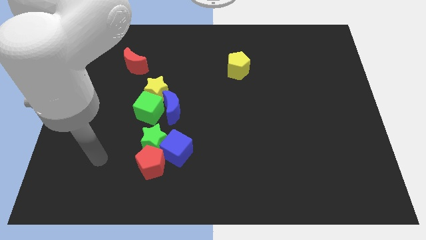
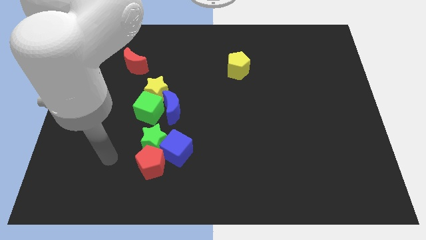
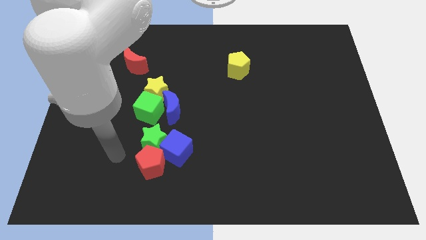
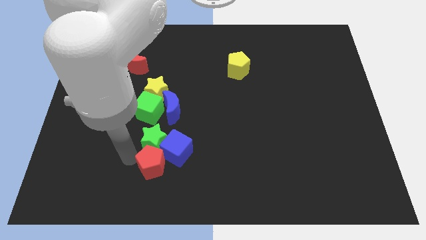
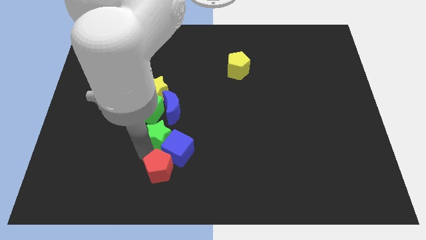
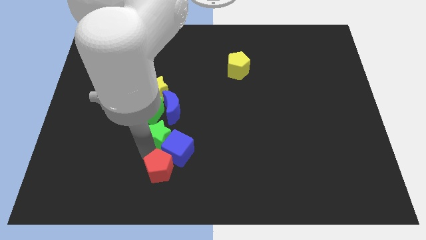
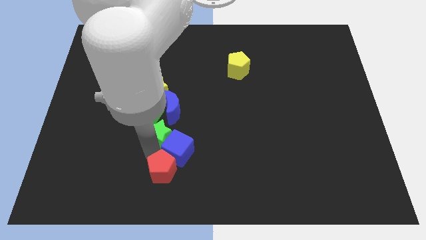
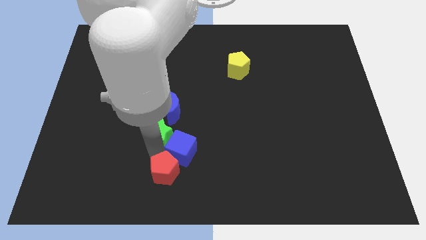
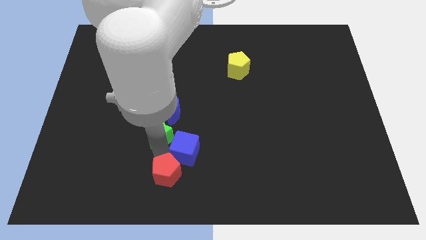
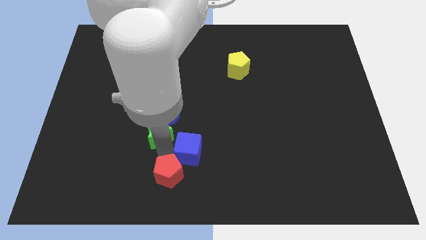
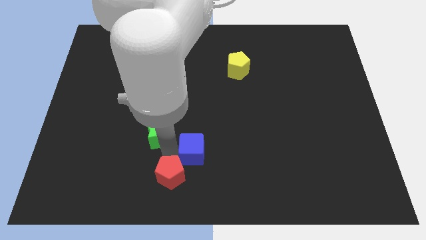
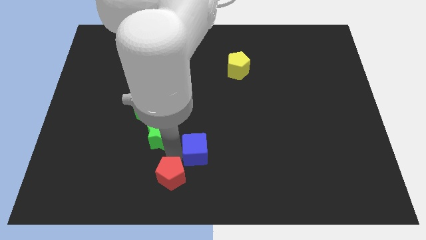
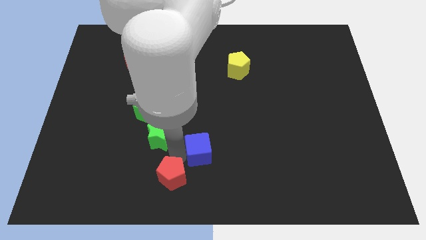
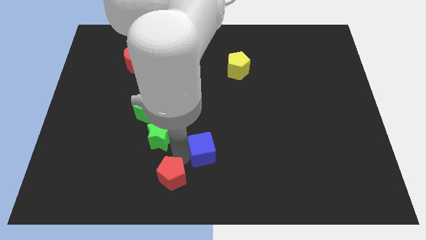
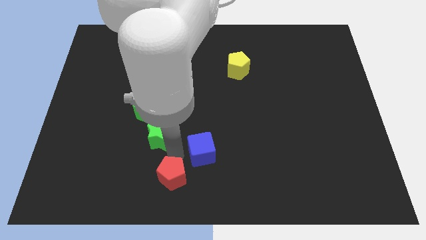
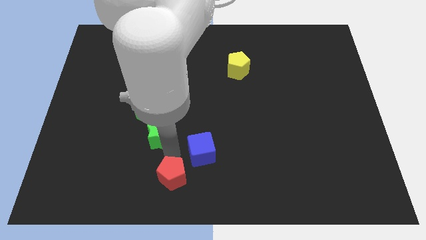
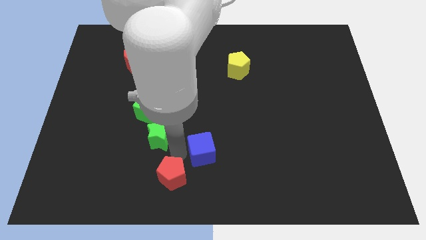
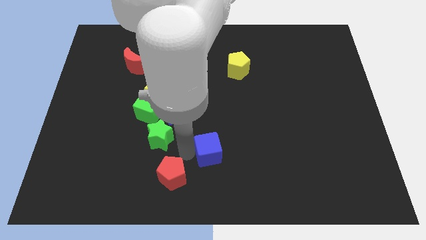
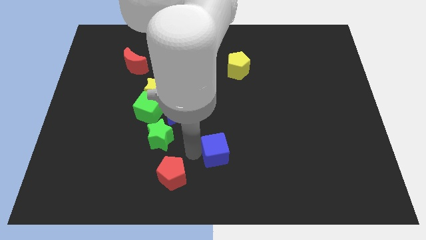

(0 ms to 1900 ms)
pull the blue cube apart from the green star and red pentagon

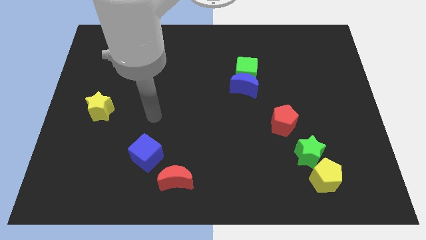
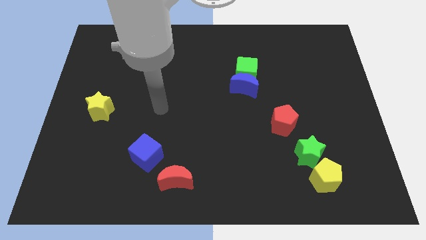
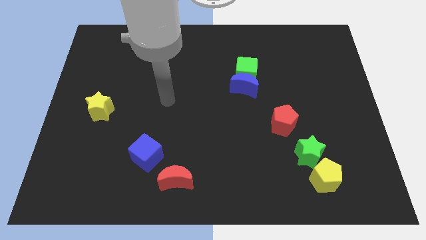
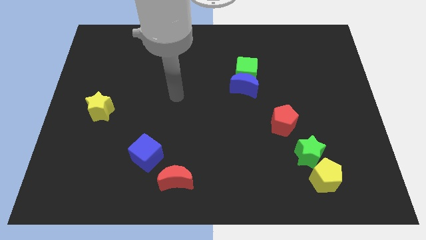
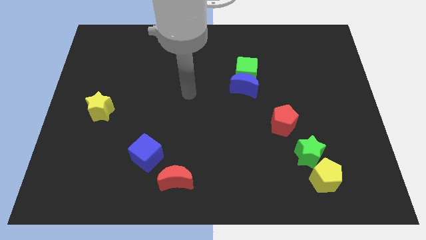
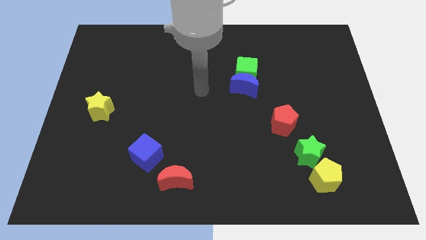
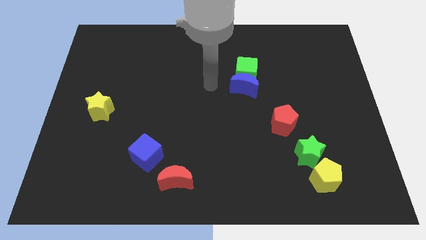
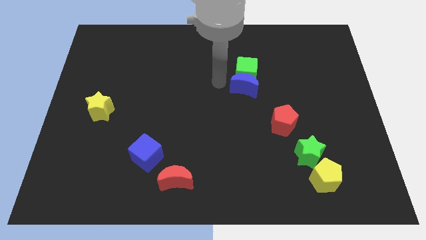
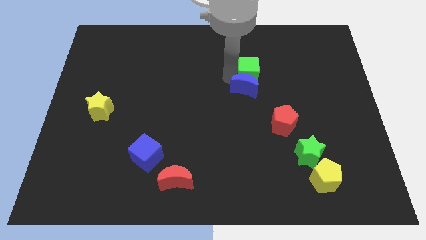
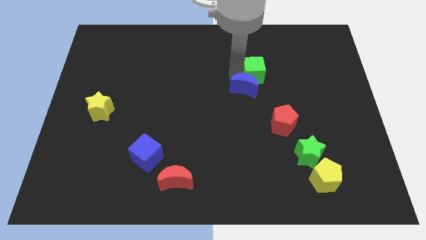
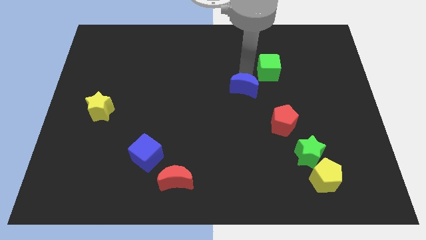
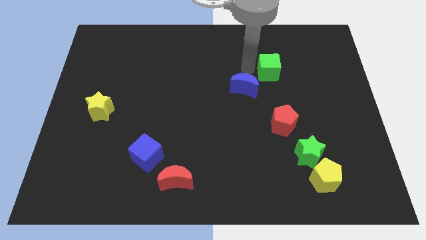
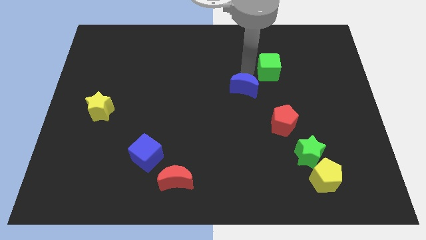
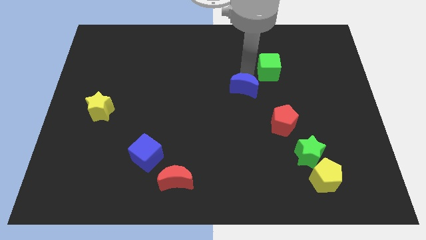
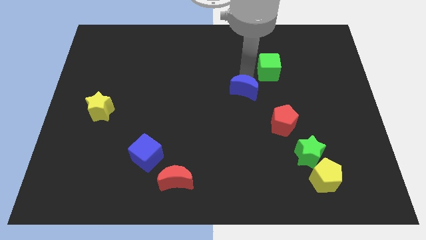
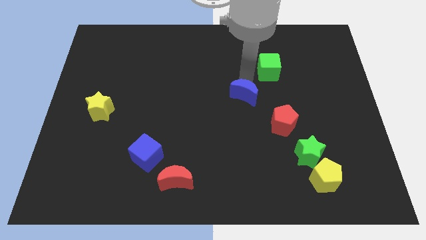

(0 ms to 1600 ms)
pull the blue moon apart from the green cube

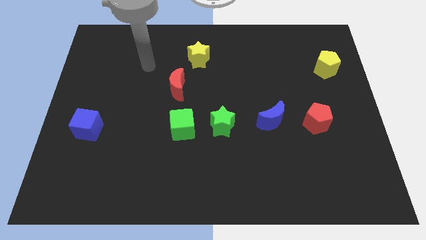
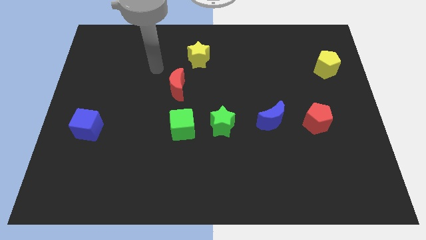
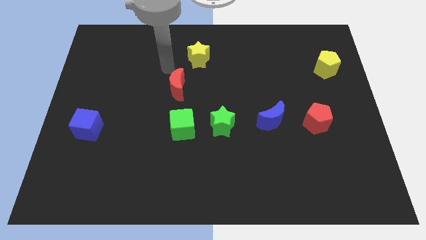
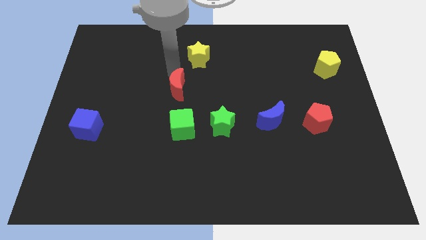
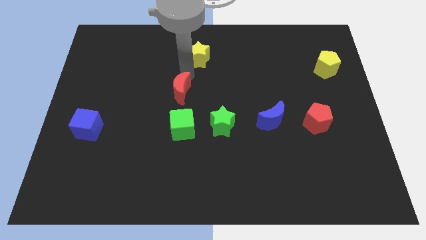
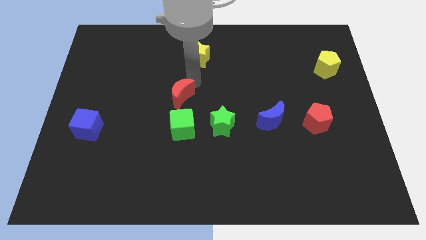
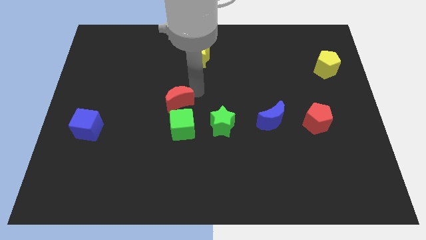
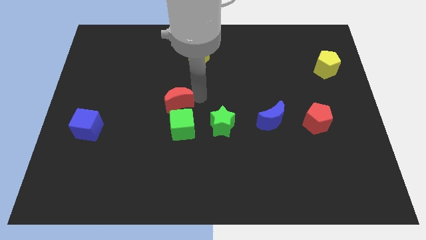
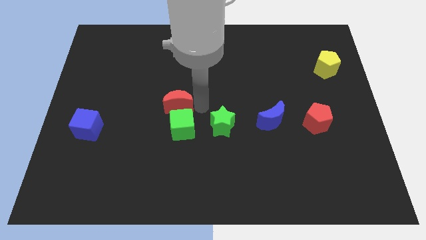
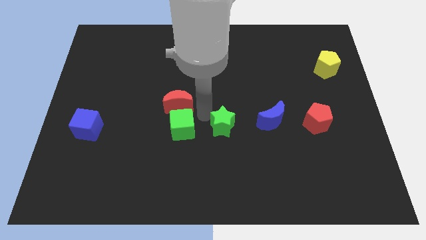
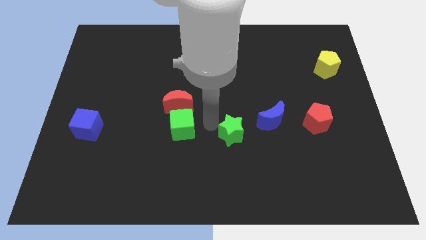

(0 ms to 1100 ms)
separate the green cube from the green star

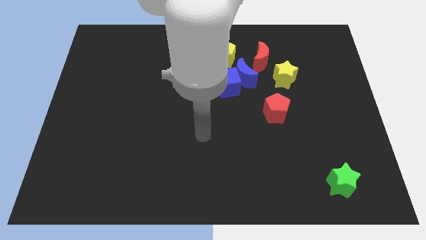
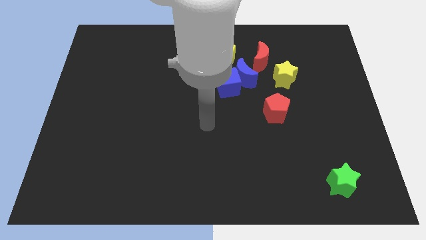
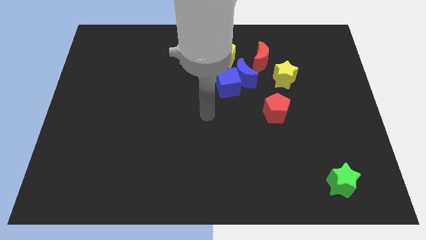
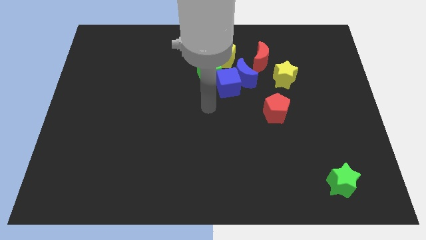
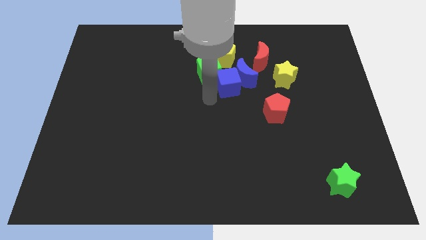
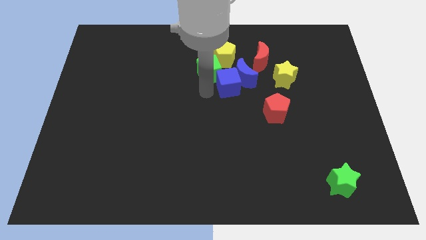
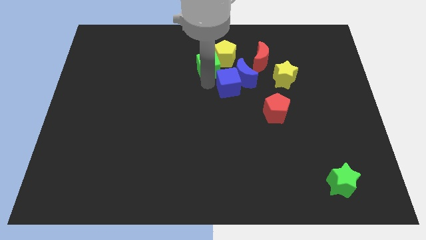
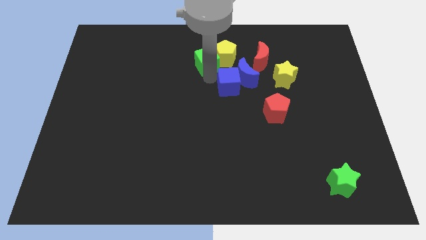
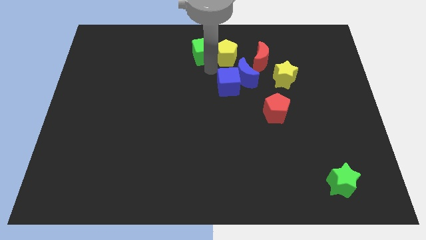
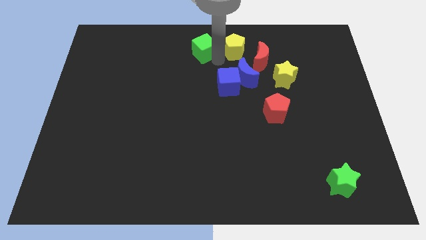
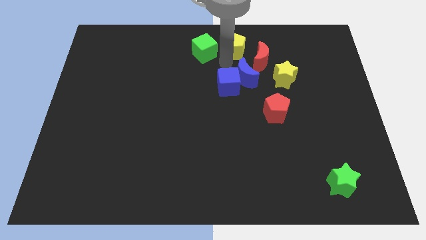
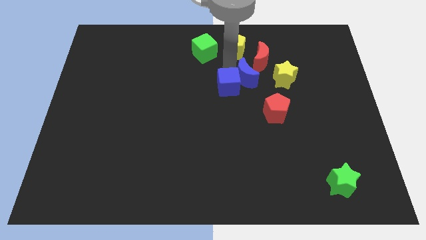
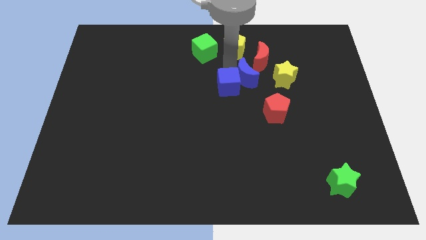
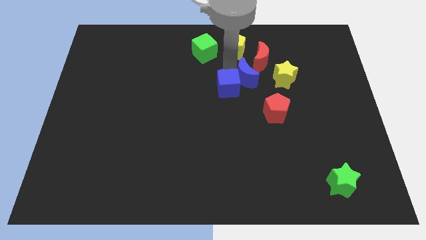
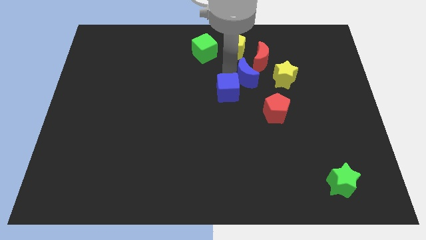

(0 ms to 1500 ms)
pull the blue cube apart from the clump

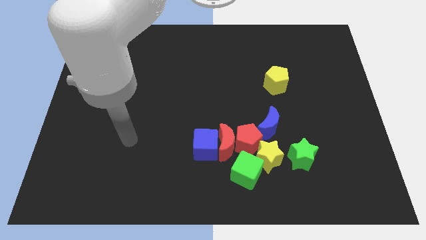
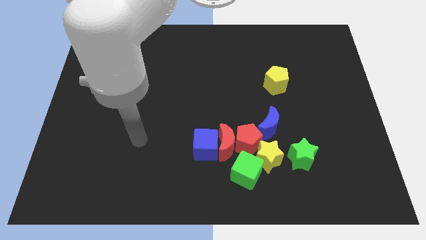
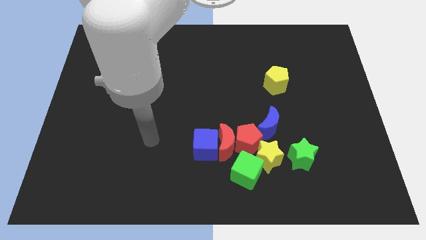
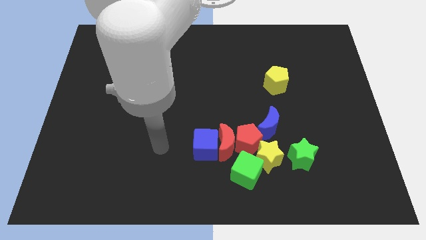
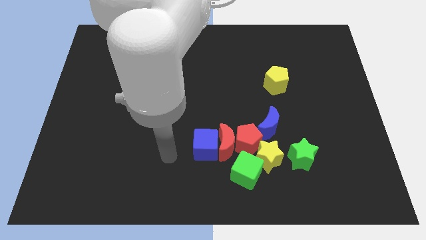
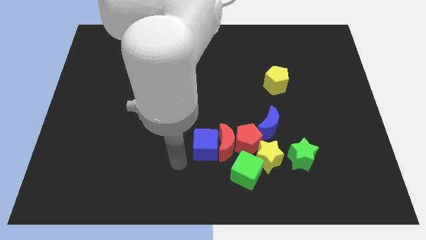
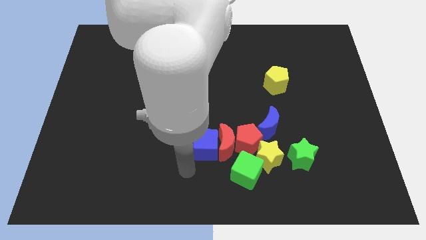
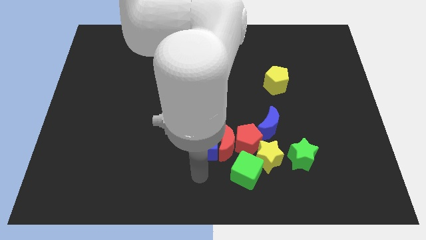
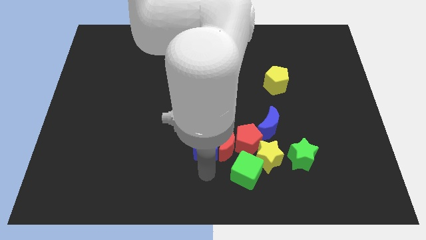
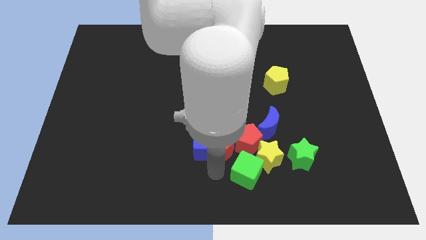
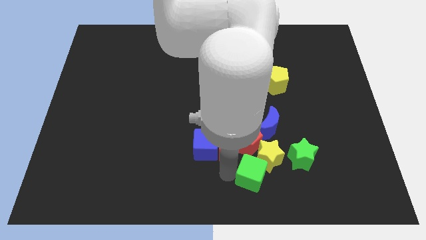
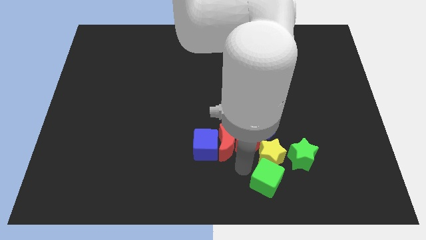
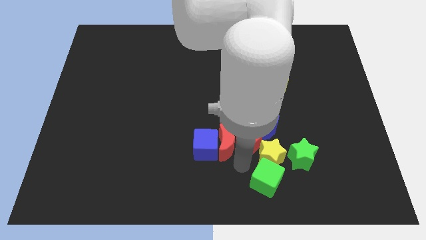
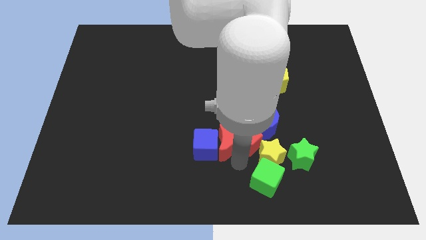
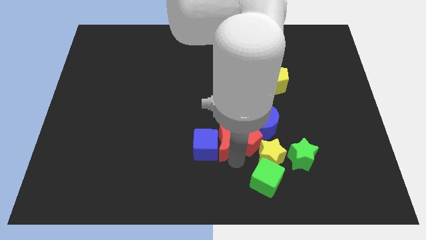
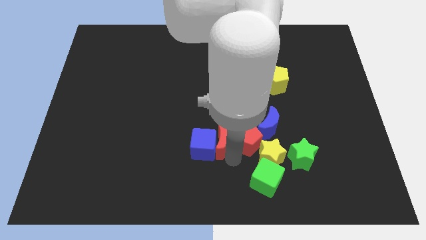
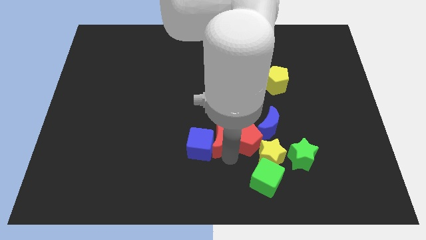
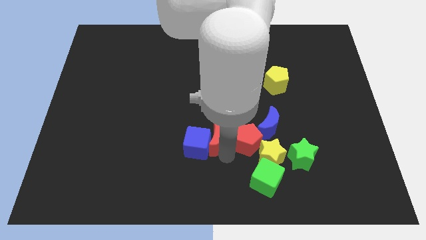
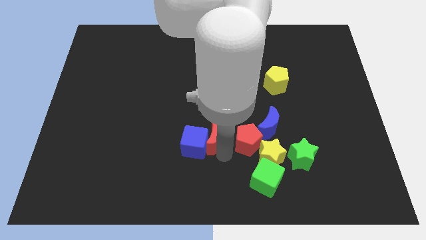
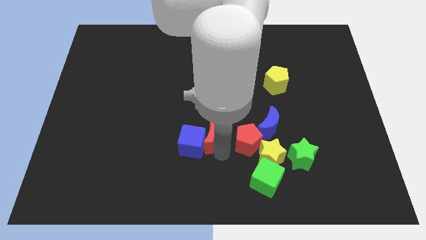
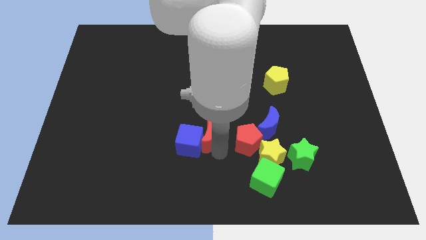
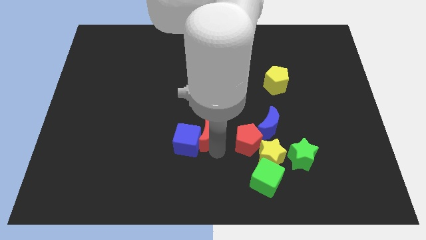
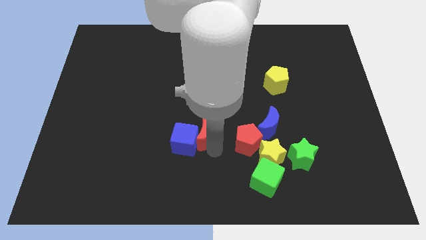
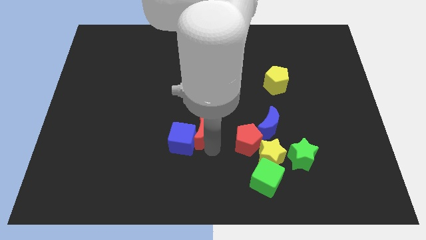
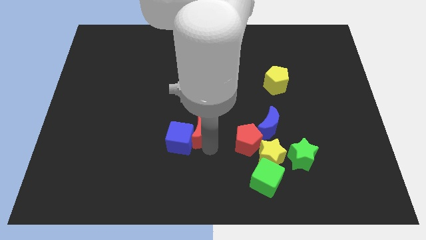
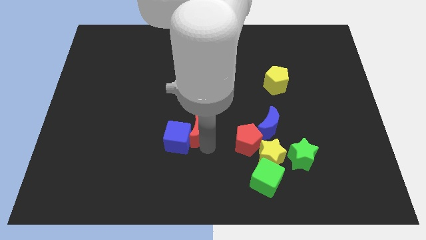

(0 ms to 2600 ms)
pull the red moon apart from the clump

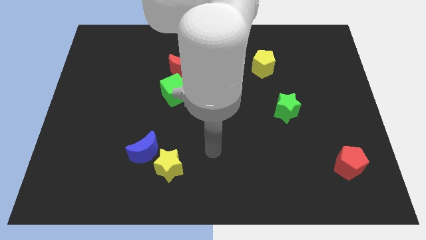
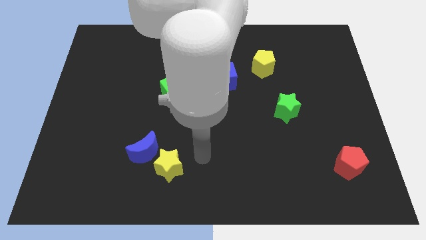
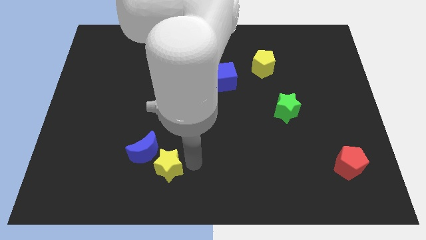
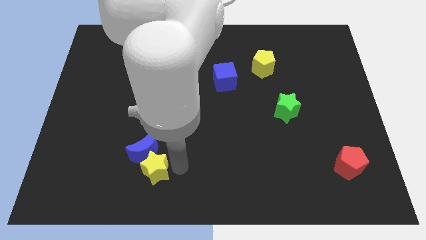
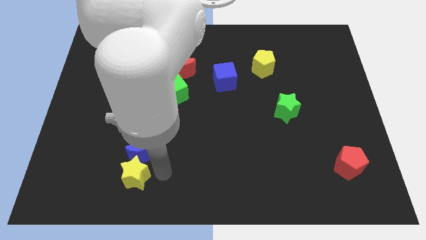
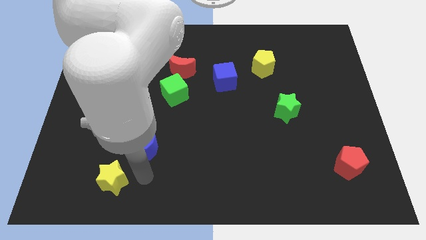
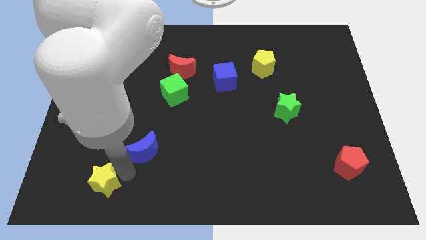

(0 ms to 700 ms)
separate the blue moon from the yellow star
